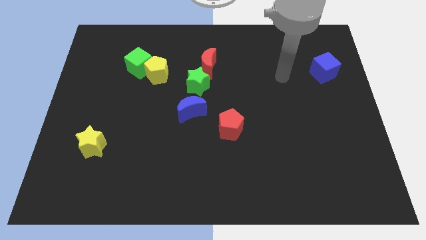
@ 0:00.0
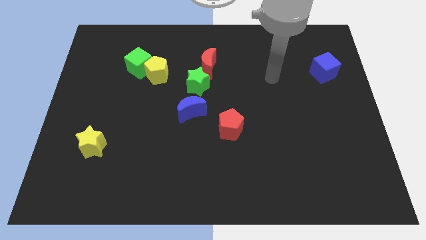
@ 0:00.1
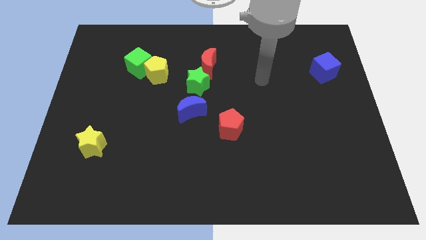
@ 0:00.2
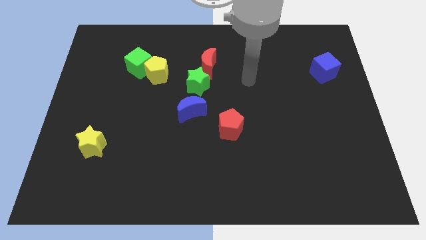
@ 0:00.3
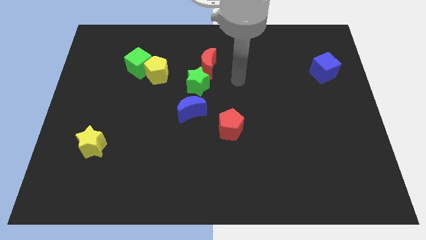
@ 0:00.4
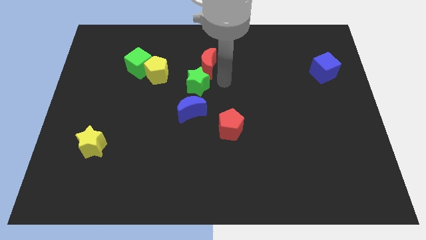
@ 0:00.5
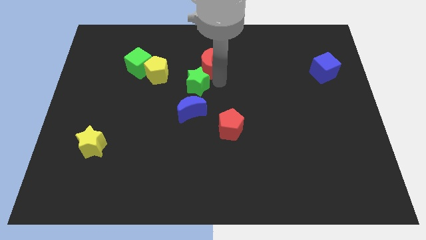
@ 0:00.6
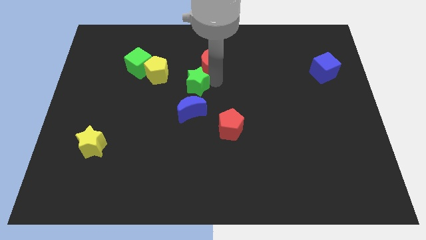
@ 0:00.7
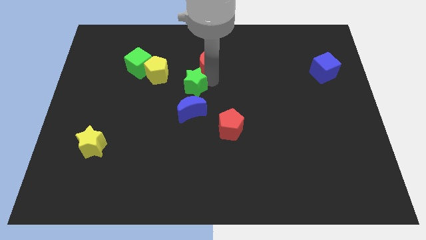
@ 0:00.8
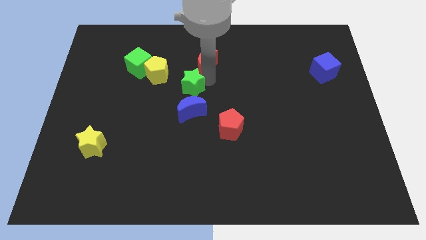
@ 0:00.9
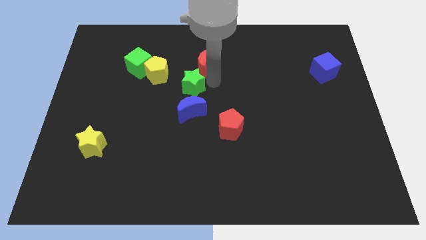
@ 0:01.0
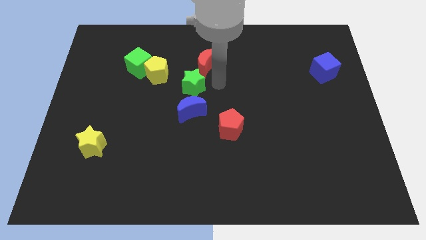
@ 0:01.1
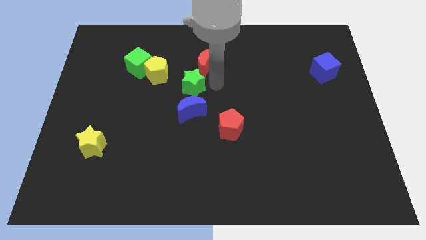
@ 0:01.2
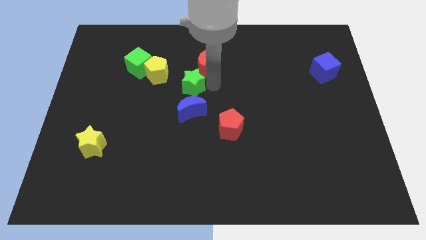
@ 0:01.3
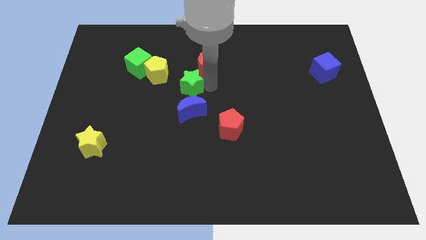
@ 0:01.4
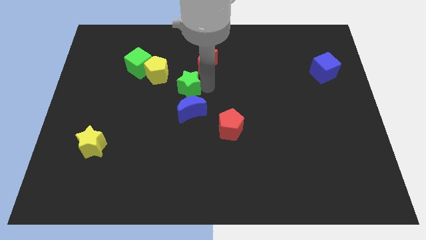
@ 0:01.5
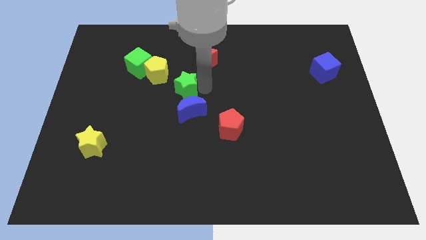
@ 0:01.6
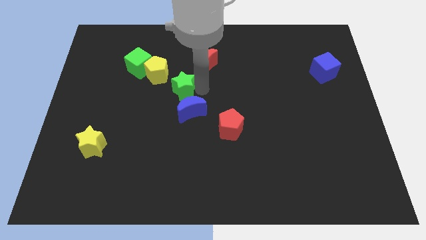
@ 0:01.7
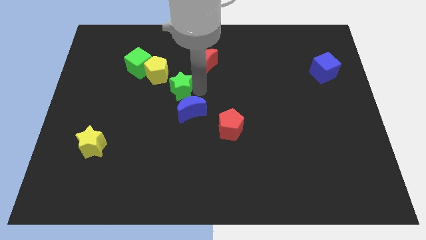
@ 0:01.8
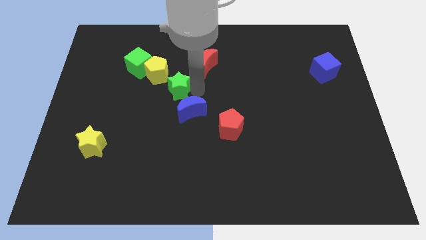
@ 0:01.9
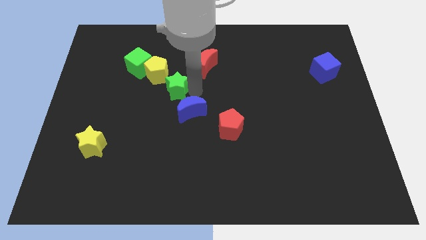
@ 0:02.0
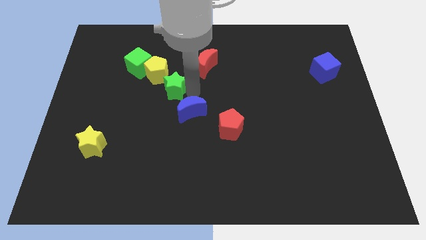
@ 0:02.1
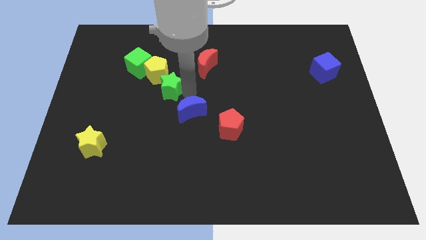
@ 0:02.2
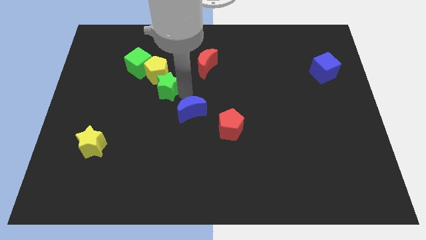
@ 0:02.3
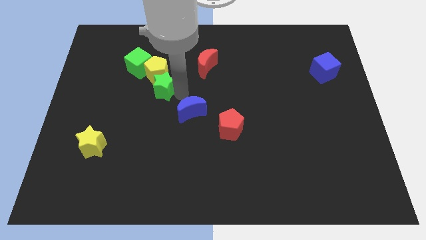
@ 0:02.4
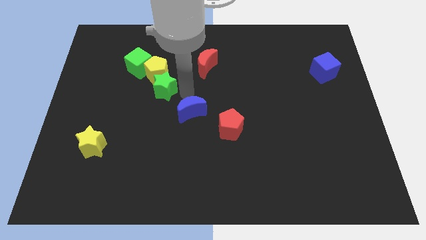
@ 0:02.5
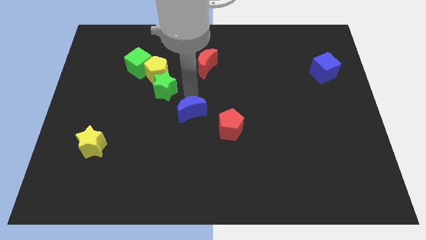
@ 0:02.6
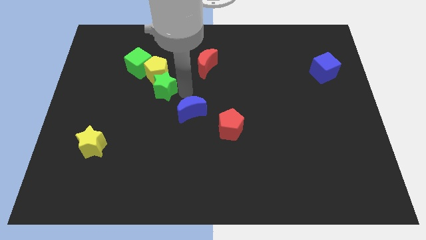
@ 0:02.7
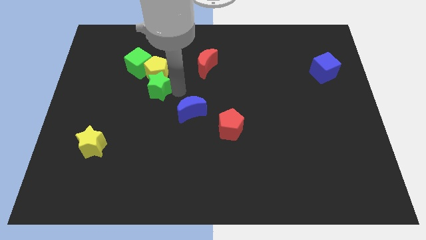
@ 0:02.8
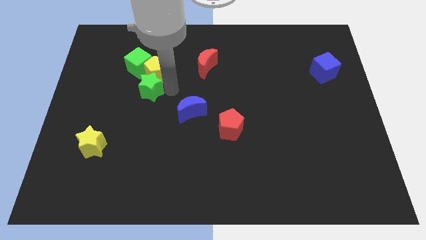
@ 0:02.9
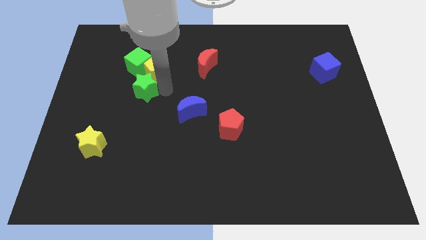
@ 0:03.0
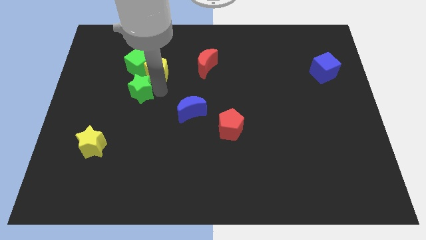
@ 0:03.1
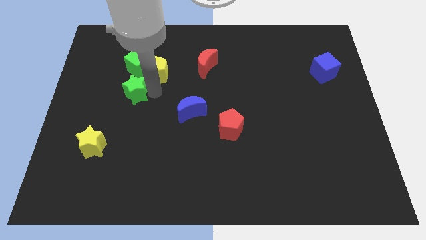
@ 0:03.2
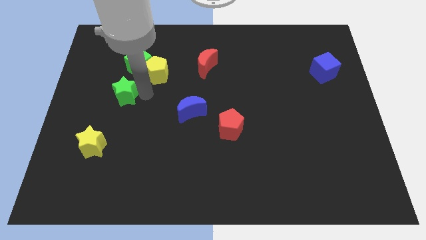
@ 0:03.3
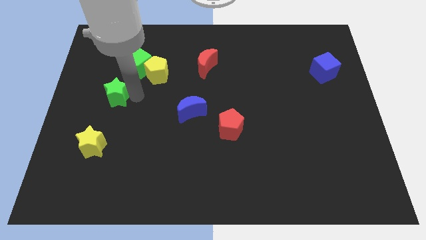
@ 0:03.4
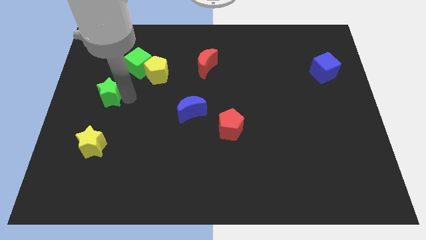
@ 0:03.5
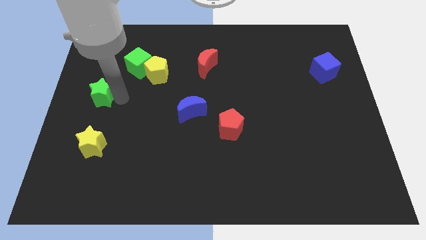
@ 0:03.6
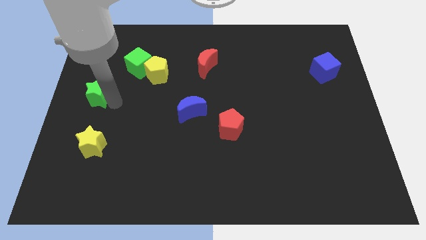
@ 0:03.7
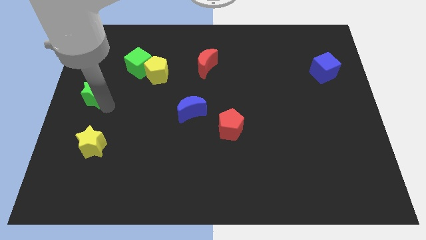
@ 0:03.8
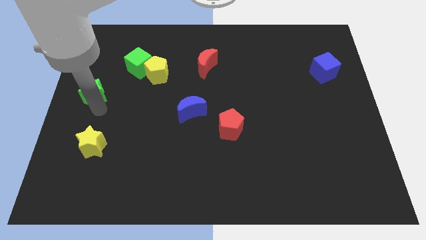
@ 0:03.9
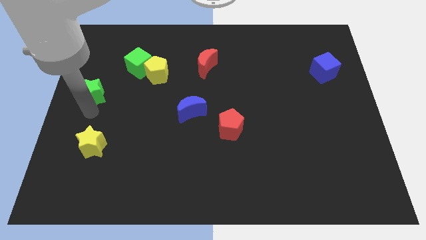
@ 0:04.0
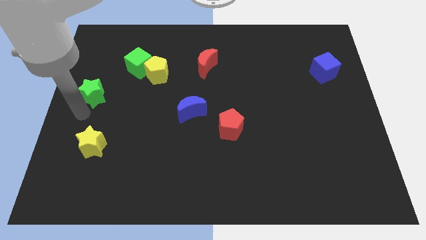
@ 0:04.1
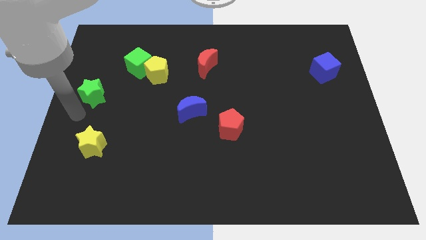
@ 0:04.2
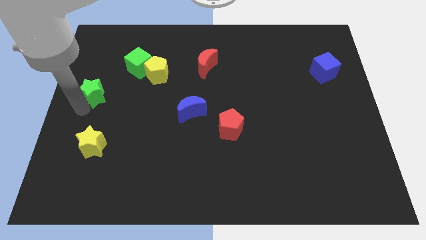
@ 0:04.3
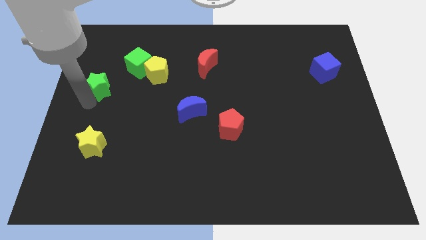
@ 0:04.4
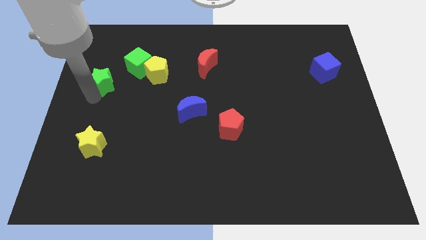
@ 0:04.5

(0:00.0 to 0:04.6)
put the green star just left of the yellow pentagon

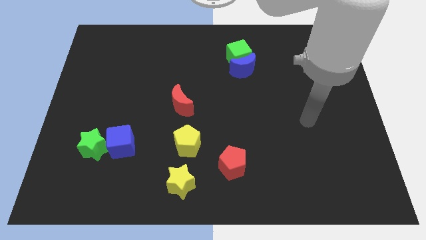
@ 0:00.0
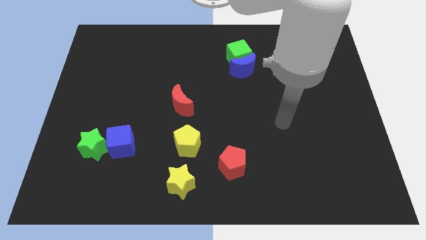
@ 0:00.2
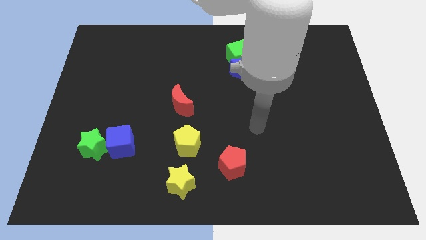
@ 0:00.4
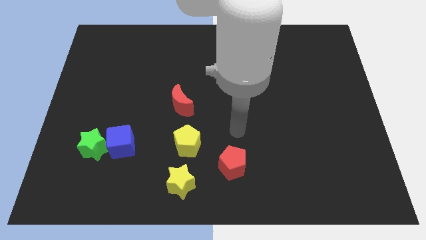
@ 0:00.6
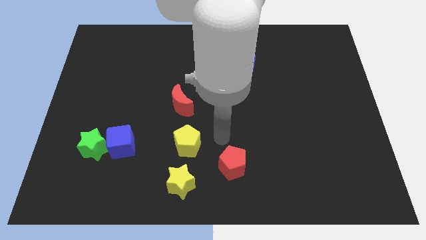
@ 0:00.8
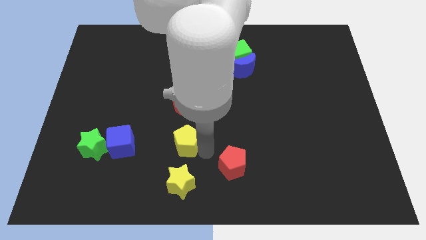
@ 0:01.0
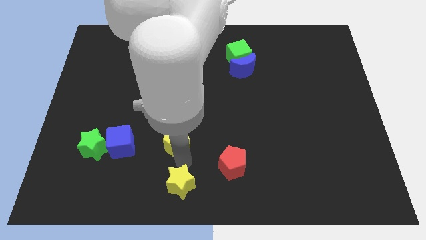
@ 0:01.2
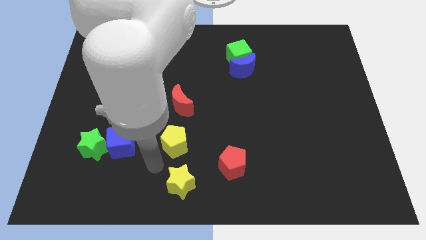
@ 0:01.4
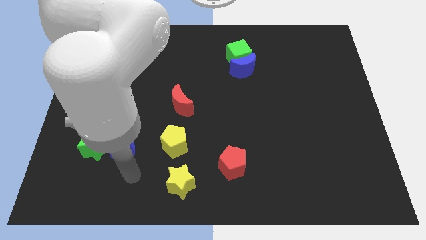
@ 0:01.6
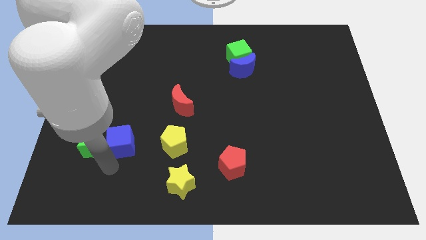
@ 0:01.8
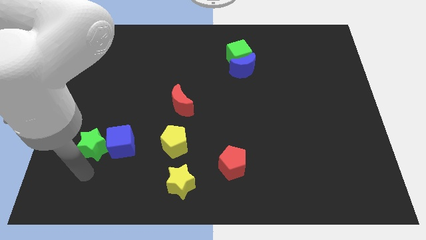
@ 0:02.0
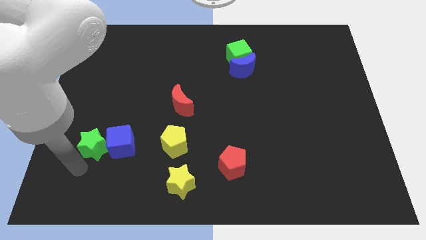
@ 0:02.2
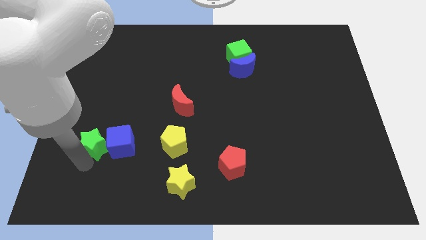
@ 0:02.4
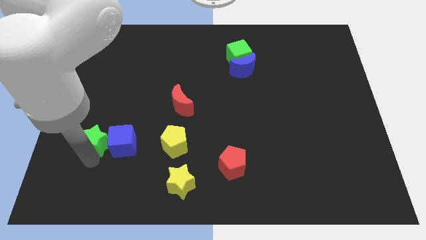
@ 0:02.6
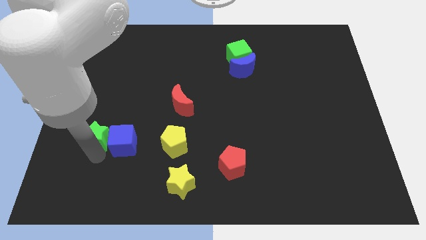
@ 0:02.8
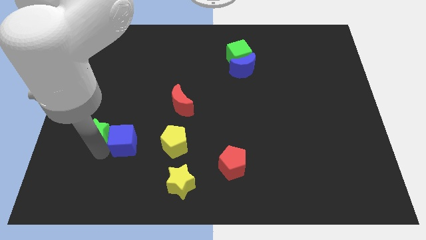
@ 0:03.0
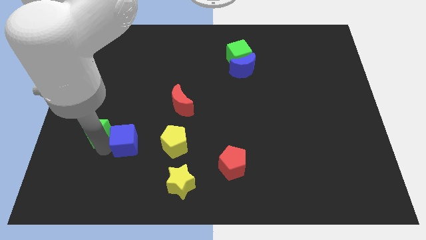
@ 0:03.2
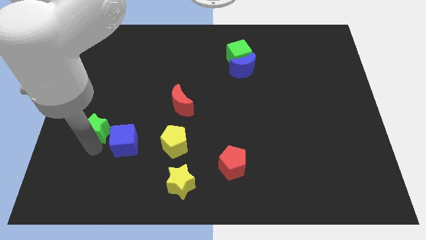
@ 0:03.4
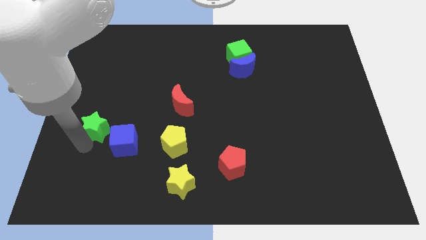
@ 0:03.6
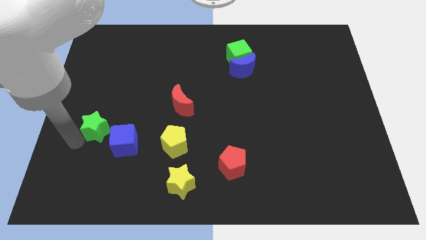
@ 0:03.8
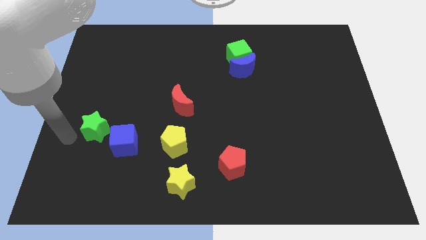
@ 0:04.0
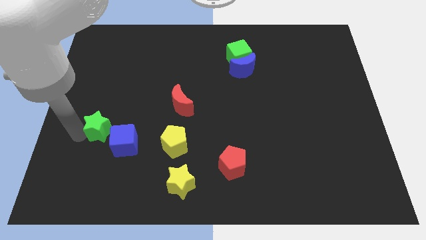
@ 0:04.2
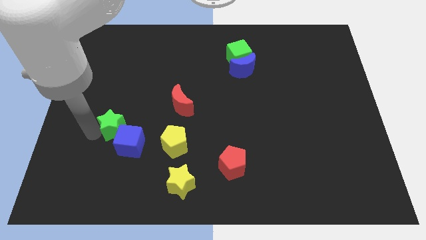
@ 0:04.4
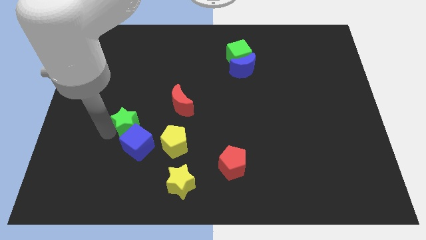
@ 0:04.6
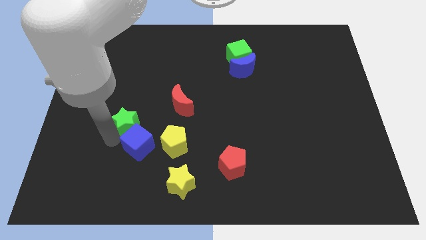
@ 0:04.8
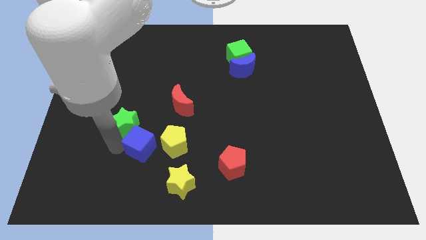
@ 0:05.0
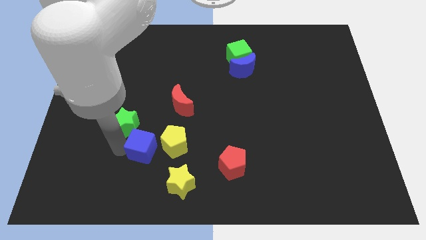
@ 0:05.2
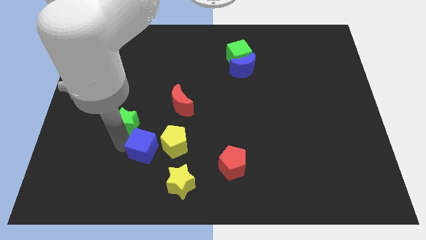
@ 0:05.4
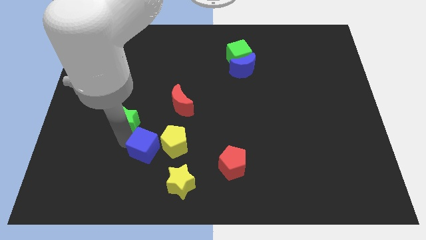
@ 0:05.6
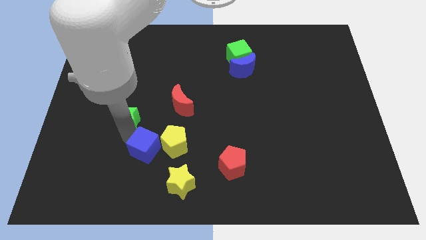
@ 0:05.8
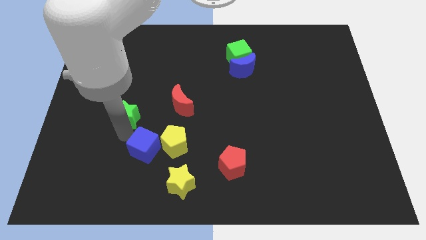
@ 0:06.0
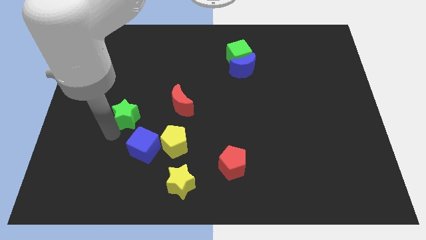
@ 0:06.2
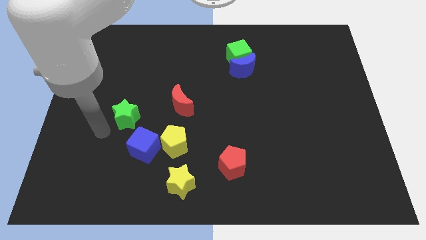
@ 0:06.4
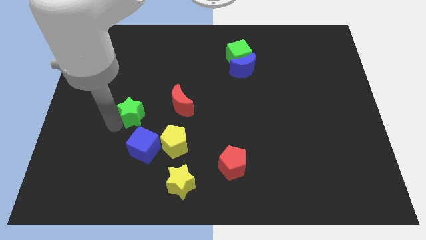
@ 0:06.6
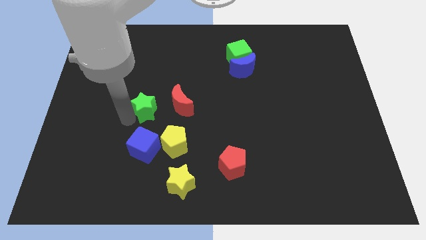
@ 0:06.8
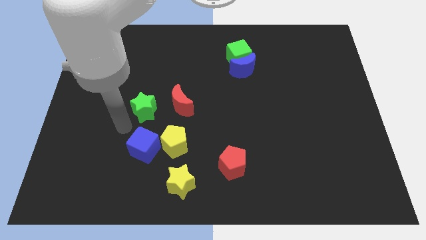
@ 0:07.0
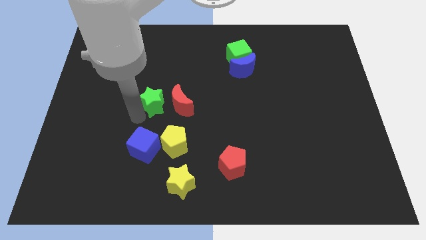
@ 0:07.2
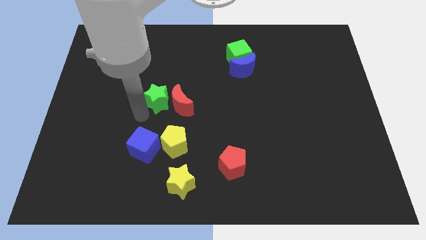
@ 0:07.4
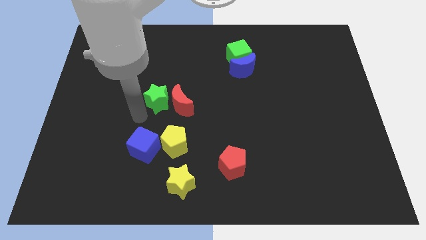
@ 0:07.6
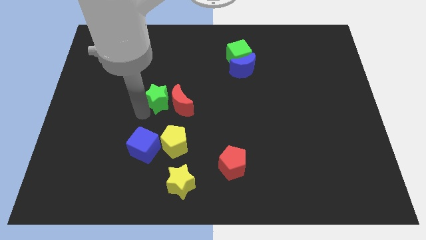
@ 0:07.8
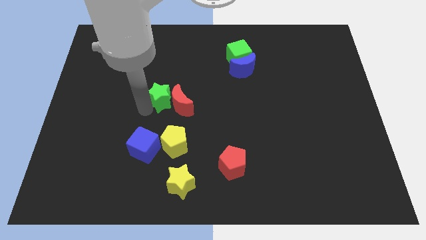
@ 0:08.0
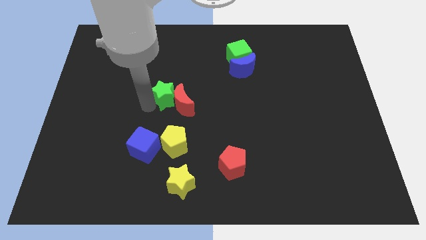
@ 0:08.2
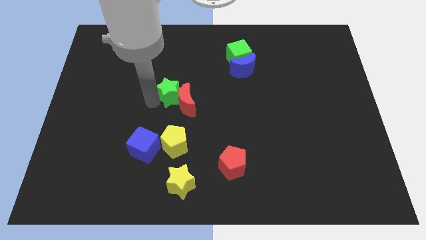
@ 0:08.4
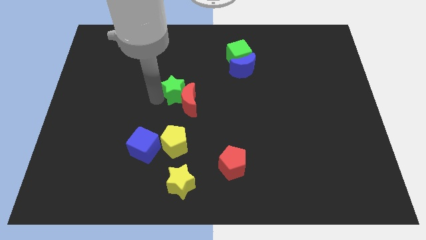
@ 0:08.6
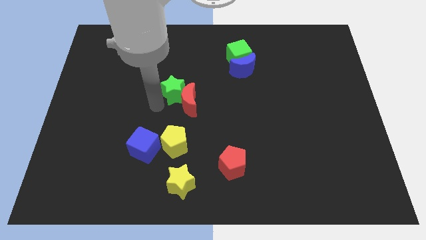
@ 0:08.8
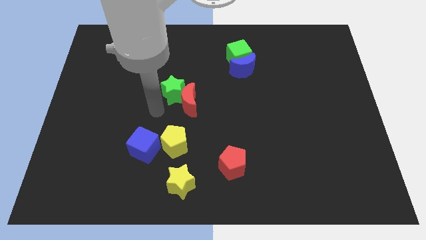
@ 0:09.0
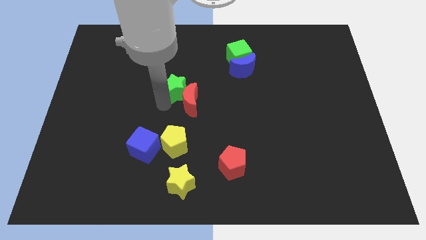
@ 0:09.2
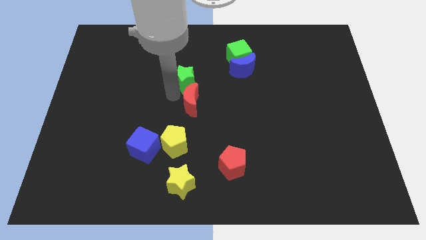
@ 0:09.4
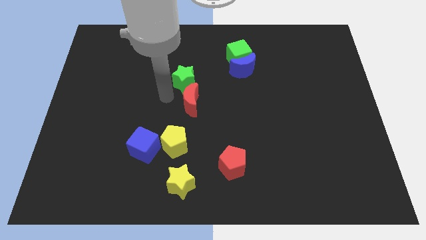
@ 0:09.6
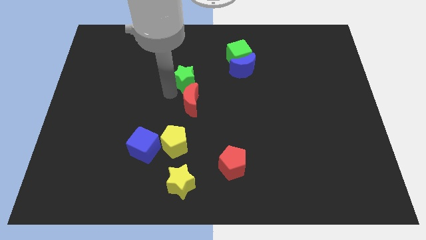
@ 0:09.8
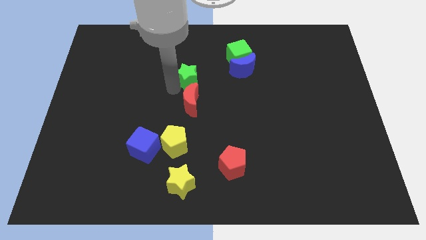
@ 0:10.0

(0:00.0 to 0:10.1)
push the green star just left of the blue moon
